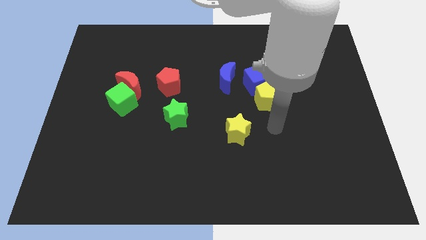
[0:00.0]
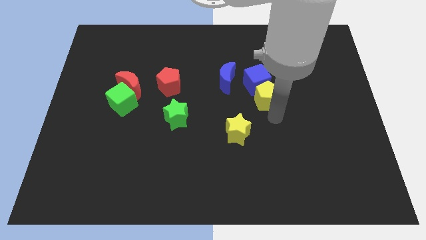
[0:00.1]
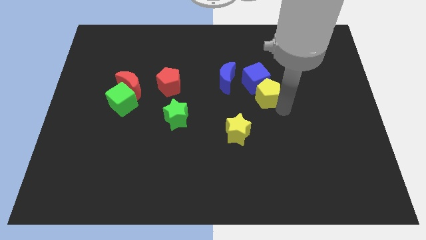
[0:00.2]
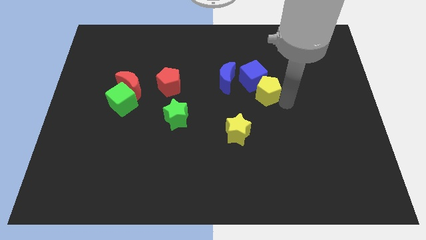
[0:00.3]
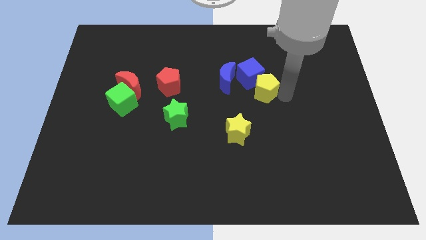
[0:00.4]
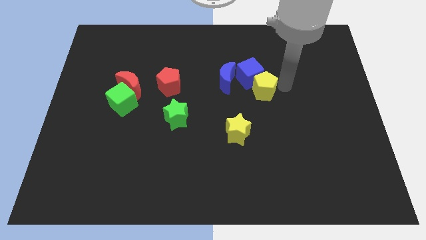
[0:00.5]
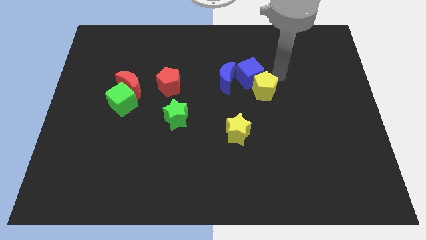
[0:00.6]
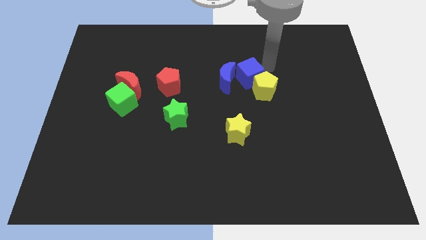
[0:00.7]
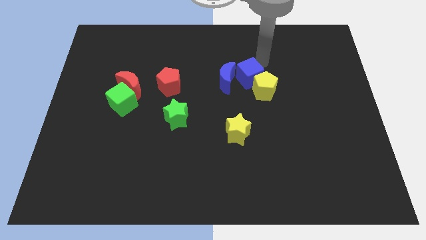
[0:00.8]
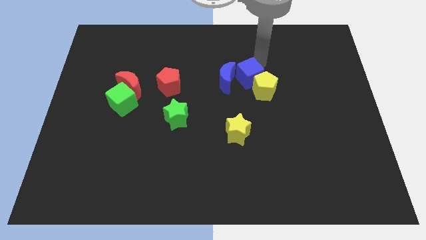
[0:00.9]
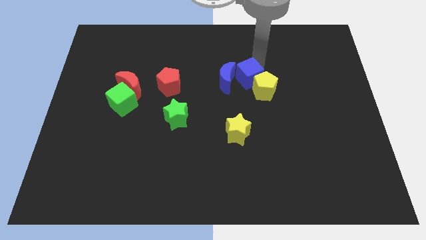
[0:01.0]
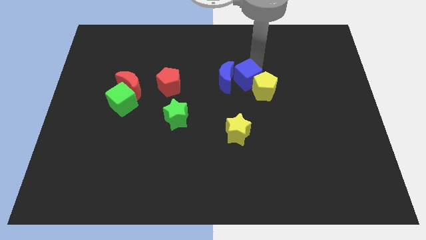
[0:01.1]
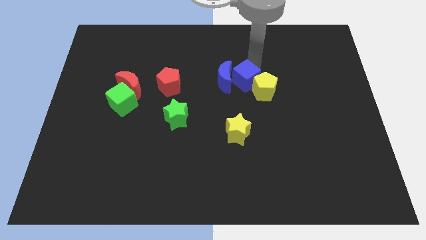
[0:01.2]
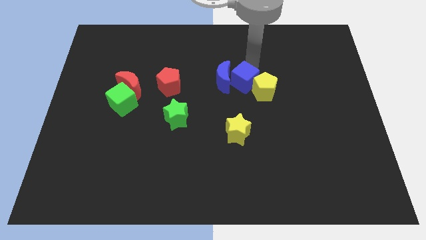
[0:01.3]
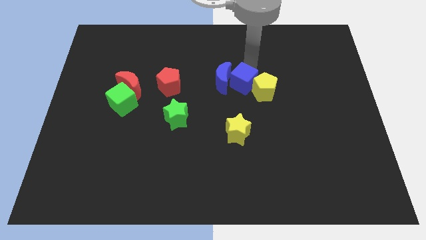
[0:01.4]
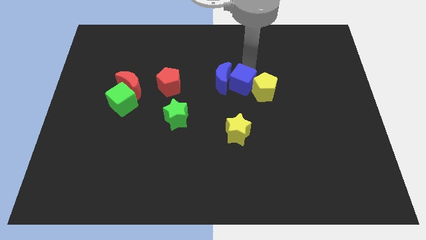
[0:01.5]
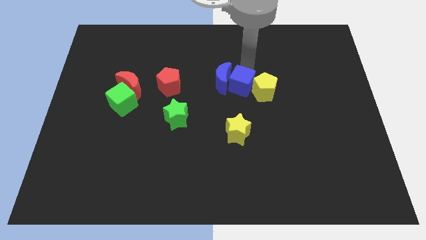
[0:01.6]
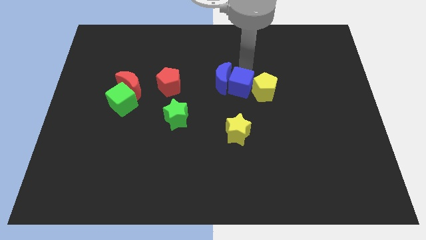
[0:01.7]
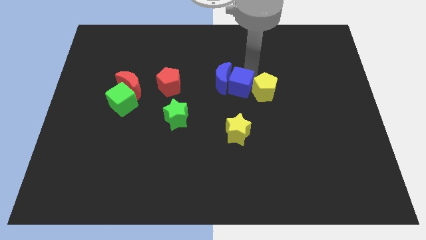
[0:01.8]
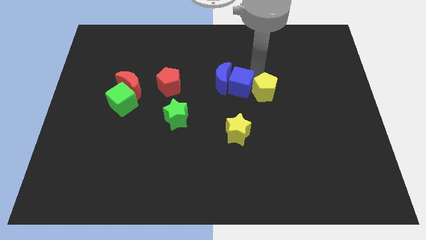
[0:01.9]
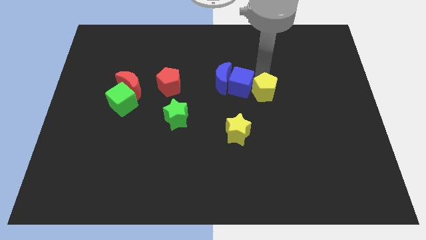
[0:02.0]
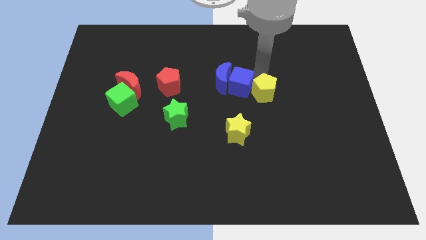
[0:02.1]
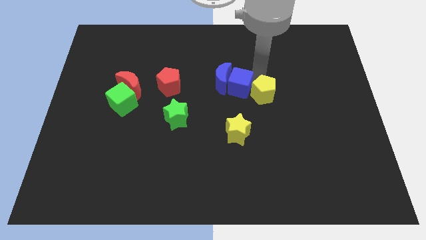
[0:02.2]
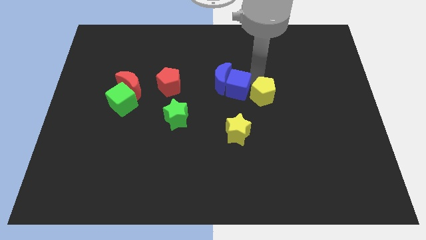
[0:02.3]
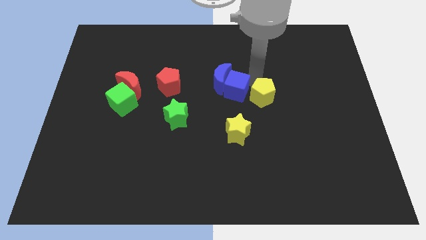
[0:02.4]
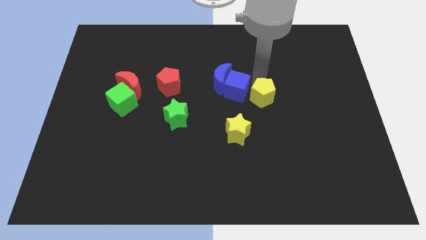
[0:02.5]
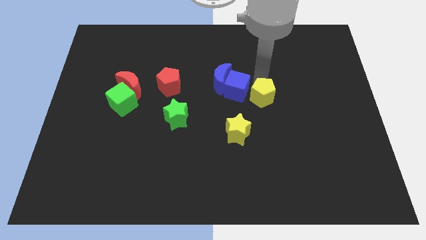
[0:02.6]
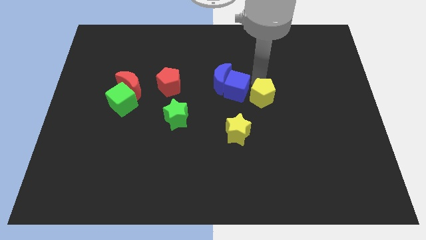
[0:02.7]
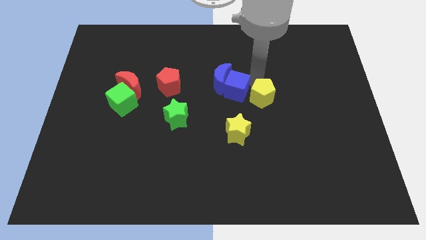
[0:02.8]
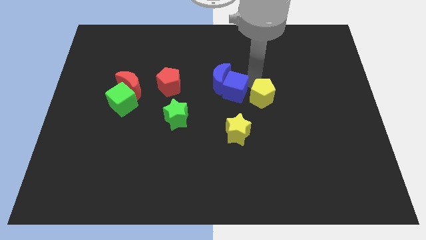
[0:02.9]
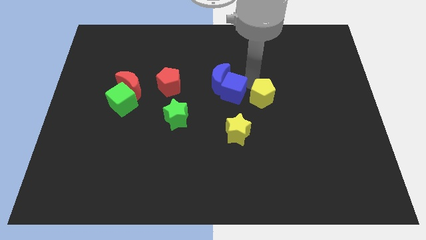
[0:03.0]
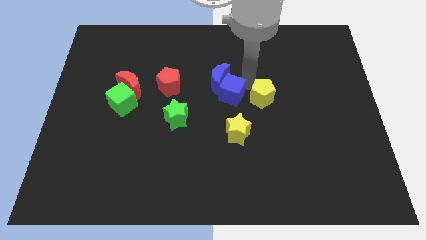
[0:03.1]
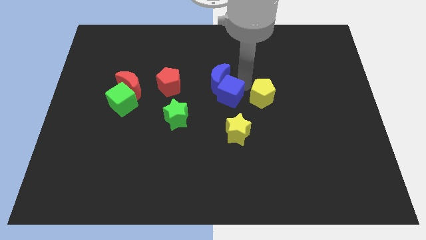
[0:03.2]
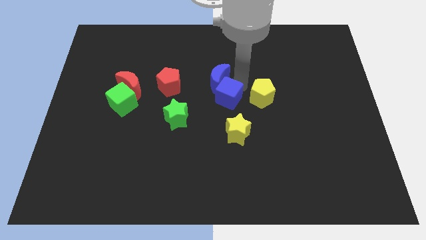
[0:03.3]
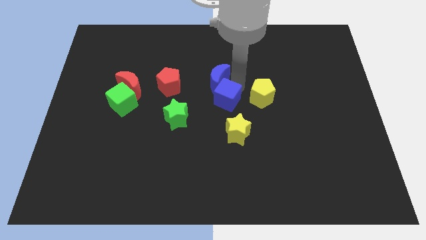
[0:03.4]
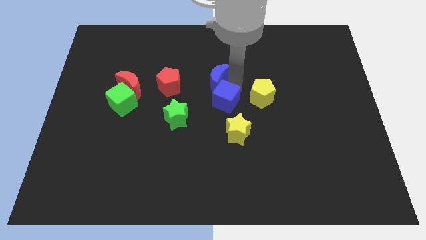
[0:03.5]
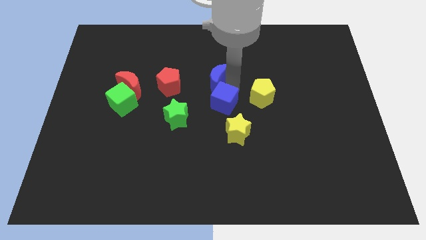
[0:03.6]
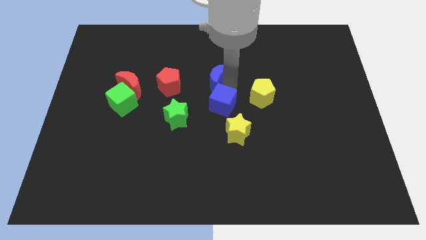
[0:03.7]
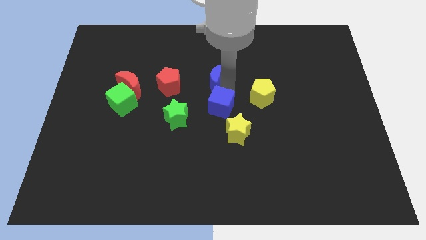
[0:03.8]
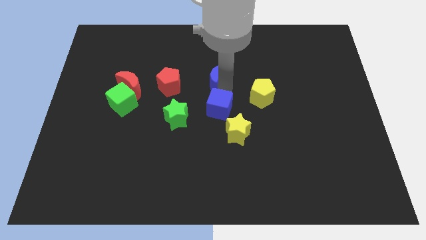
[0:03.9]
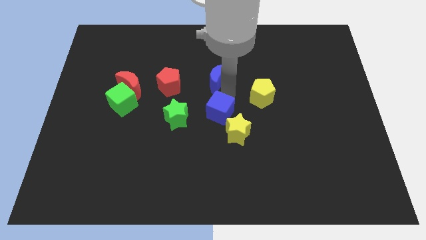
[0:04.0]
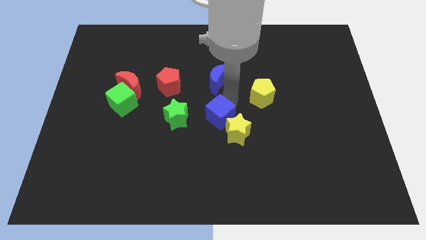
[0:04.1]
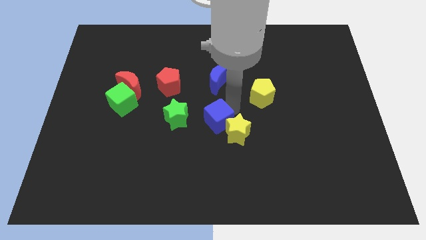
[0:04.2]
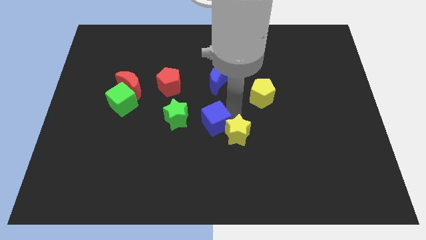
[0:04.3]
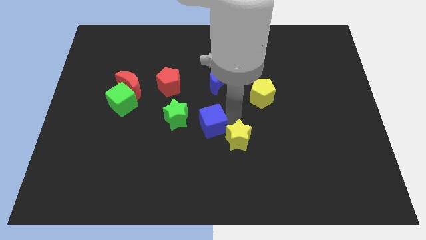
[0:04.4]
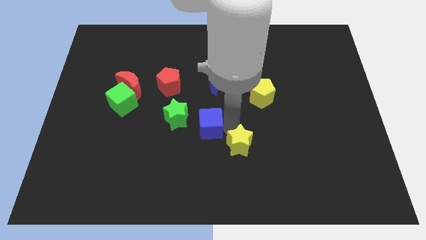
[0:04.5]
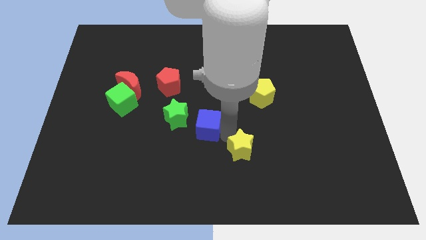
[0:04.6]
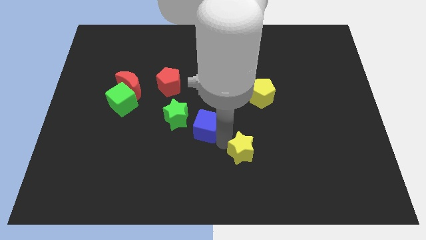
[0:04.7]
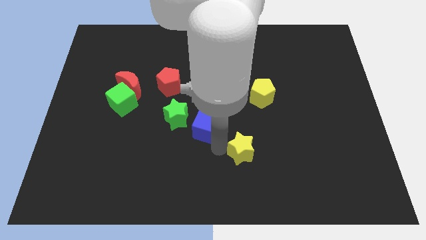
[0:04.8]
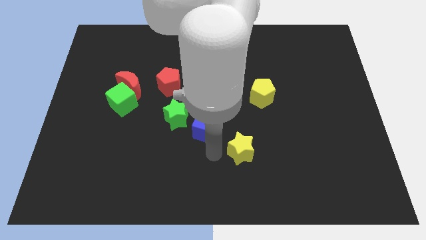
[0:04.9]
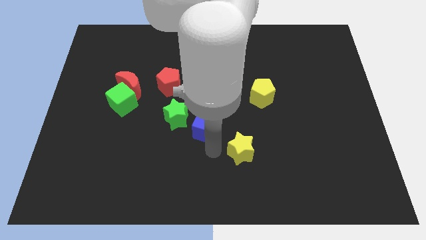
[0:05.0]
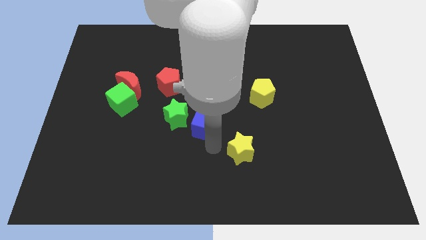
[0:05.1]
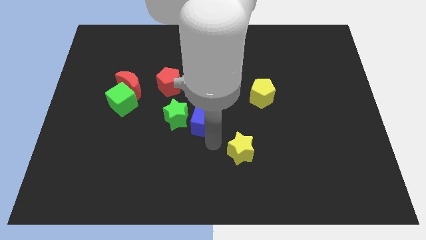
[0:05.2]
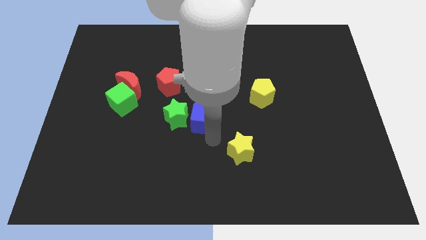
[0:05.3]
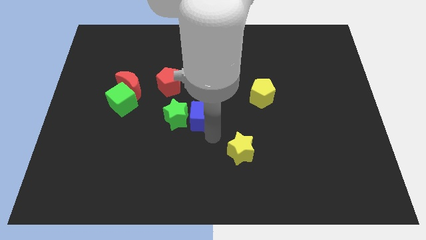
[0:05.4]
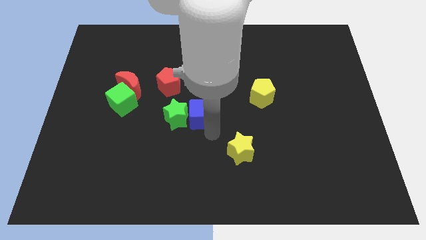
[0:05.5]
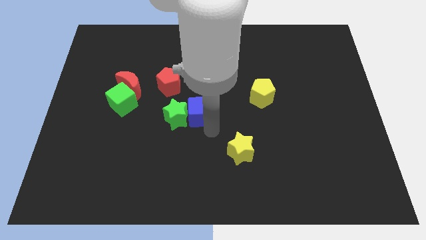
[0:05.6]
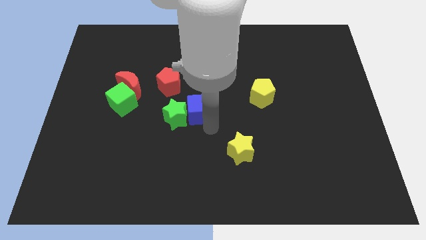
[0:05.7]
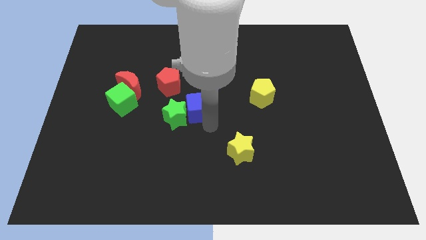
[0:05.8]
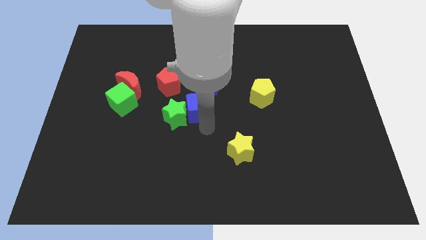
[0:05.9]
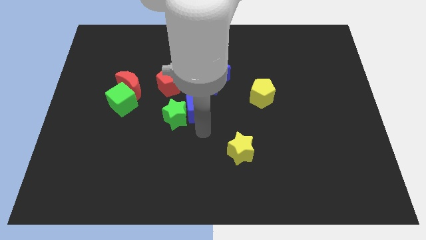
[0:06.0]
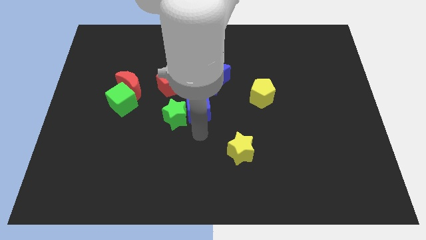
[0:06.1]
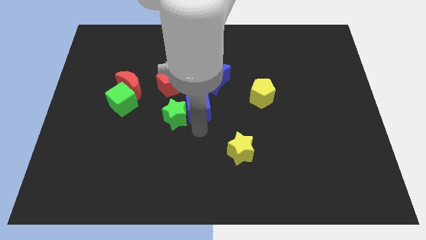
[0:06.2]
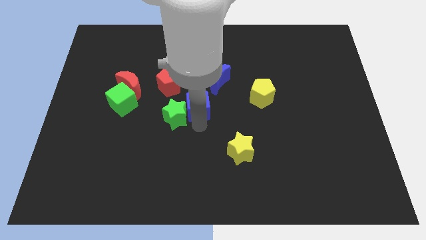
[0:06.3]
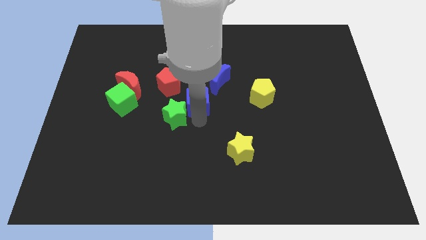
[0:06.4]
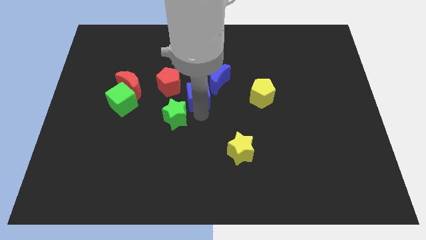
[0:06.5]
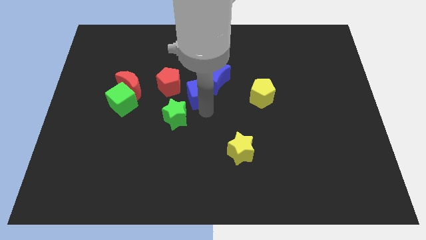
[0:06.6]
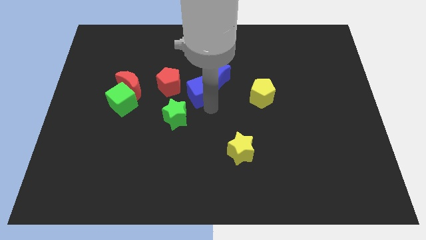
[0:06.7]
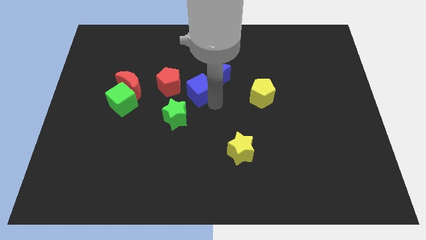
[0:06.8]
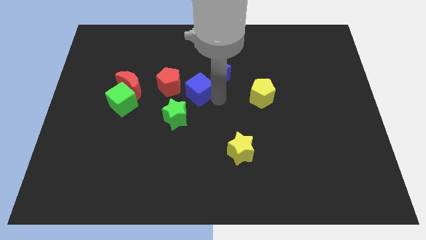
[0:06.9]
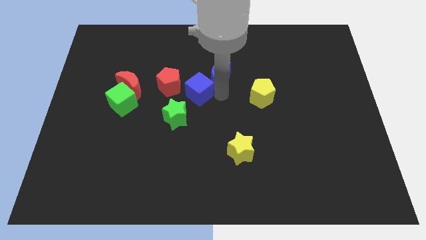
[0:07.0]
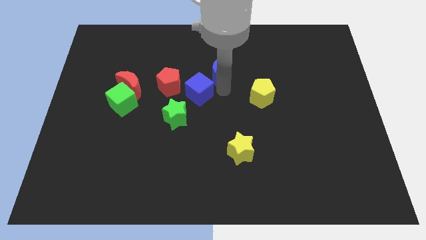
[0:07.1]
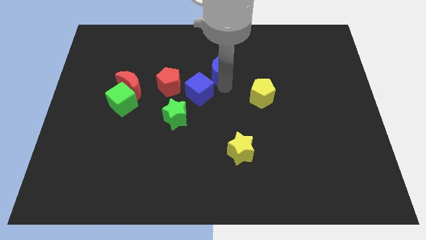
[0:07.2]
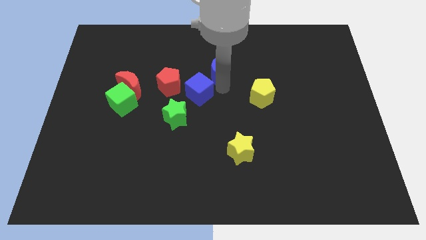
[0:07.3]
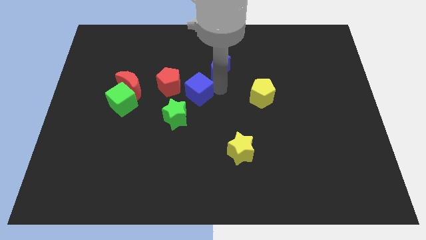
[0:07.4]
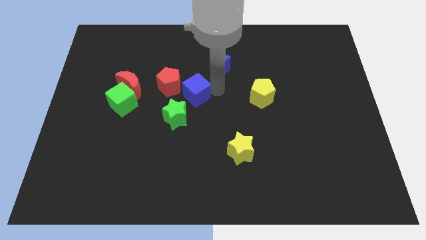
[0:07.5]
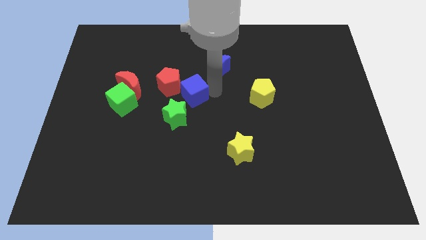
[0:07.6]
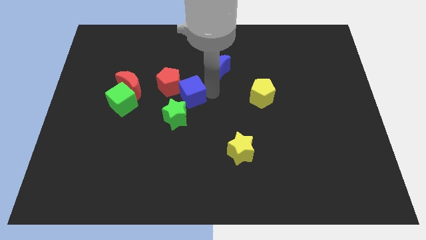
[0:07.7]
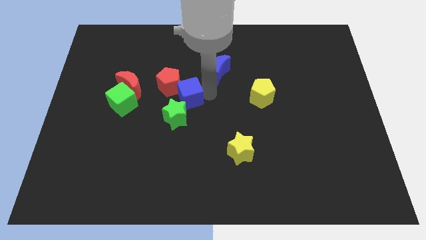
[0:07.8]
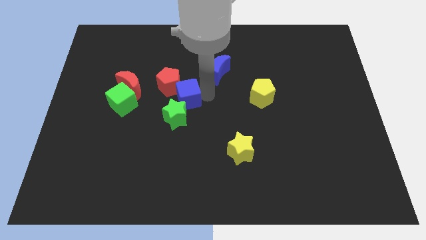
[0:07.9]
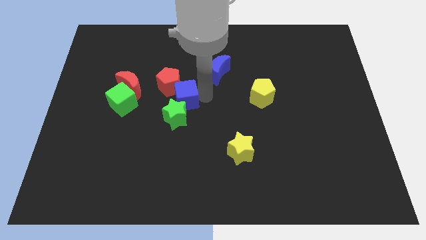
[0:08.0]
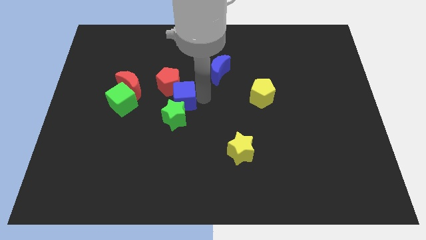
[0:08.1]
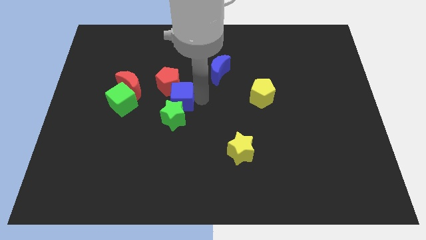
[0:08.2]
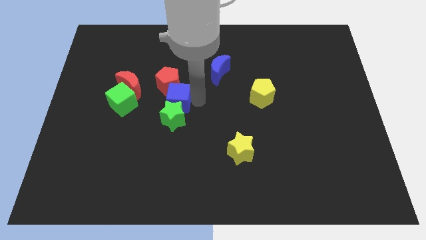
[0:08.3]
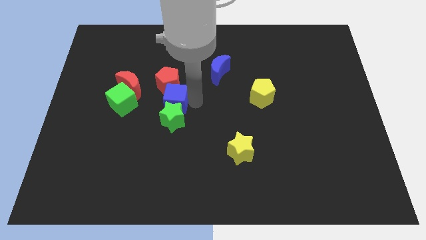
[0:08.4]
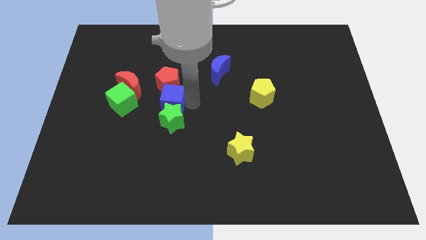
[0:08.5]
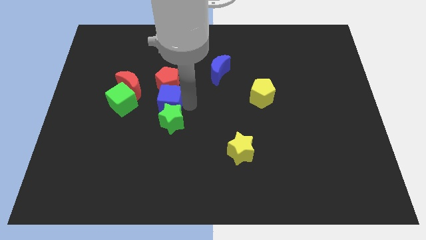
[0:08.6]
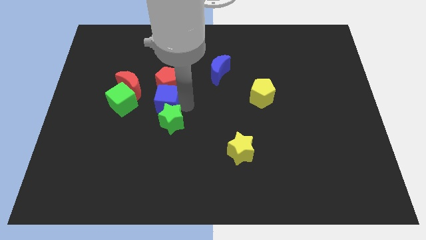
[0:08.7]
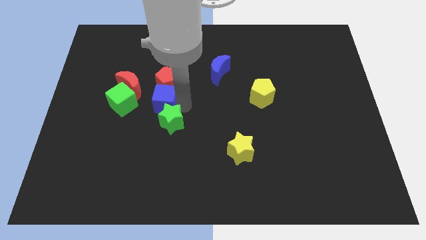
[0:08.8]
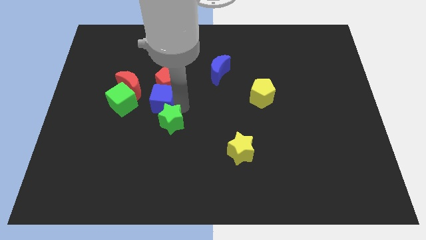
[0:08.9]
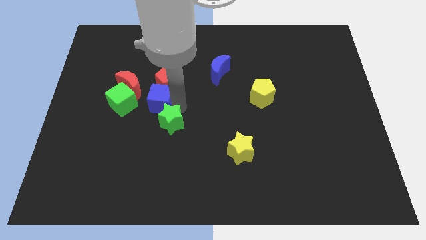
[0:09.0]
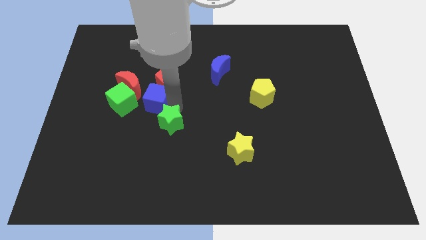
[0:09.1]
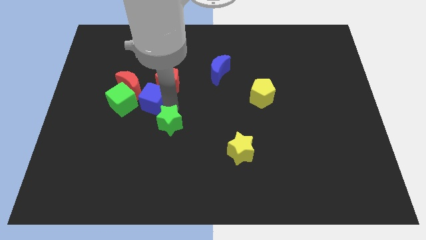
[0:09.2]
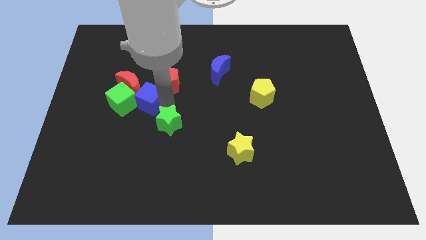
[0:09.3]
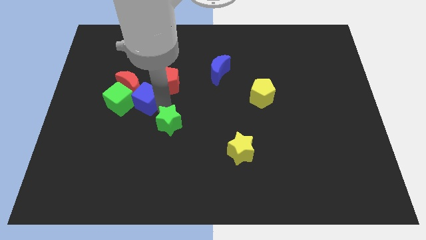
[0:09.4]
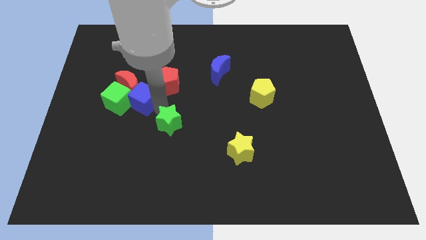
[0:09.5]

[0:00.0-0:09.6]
put the blue cube to the red moon
